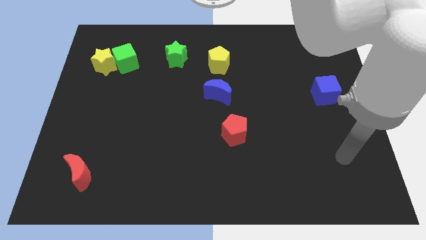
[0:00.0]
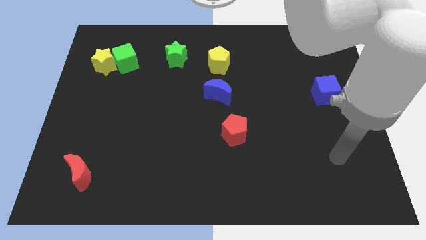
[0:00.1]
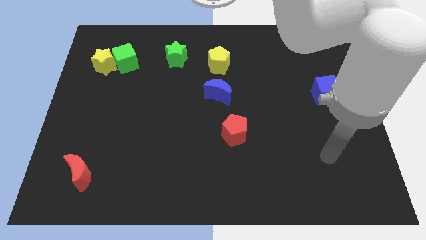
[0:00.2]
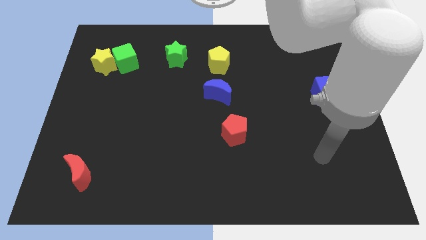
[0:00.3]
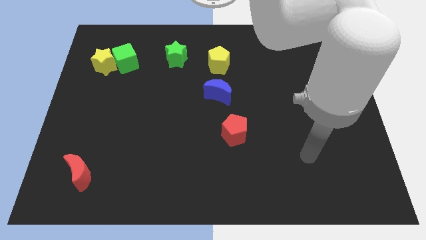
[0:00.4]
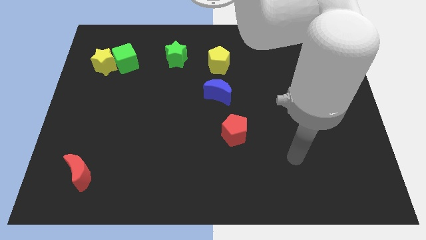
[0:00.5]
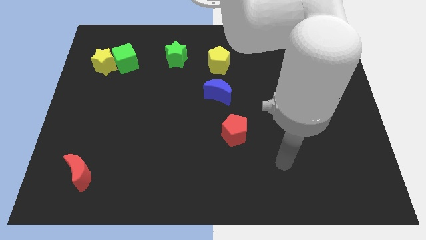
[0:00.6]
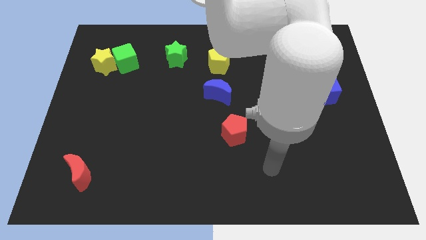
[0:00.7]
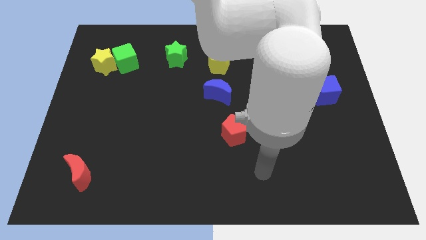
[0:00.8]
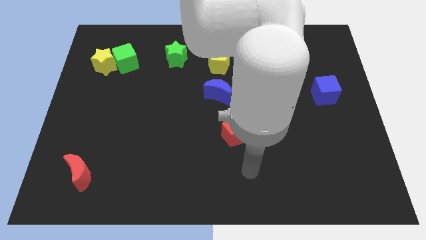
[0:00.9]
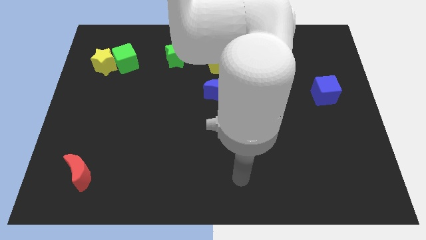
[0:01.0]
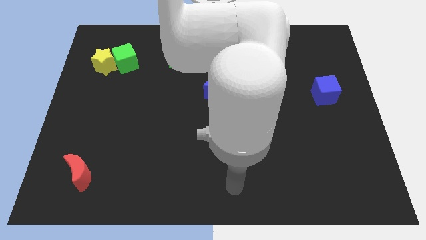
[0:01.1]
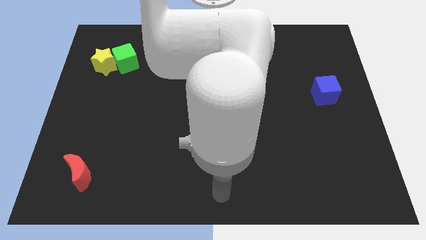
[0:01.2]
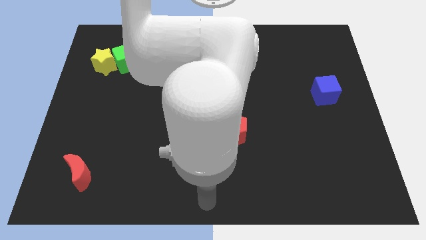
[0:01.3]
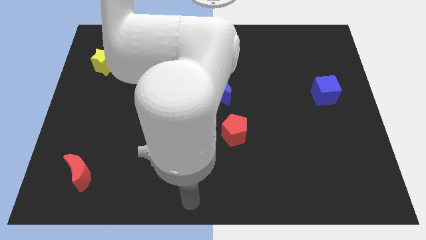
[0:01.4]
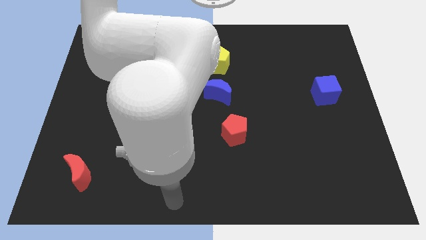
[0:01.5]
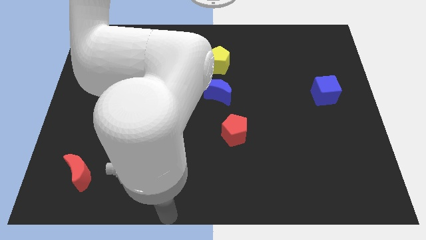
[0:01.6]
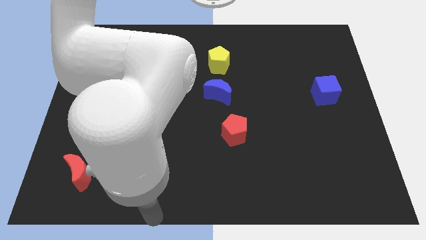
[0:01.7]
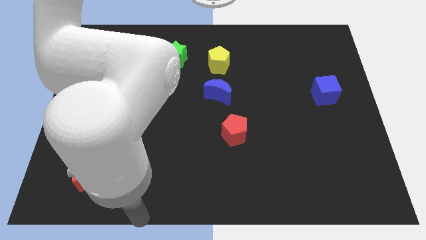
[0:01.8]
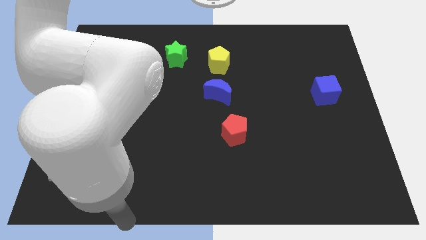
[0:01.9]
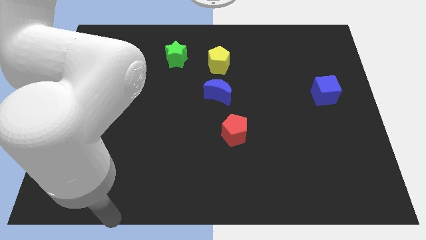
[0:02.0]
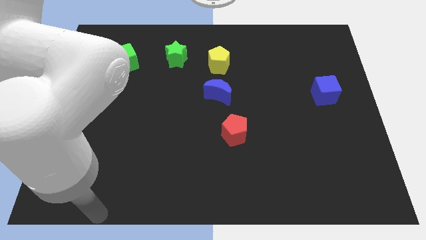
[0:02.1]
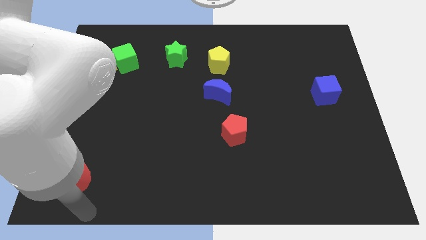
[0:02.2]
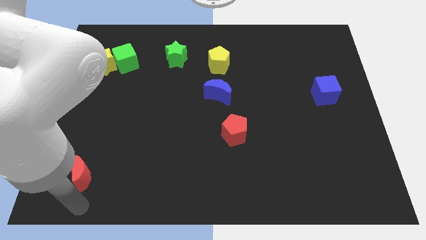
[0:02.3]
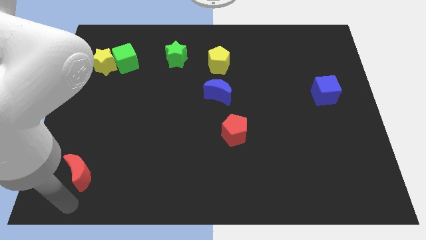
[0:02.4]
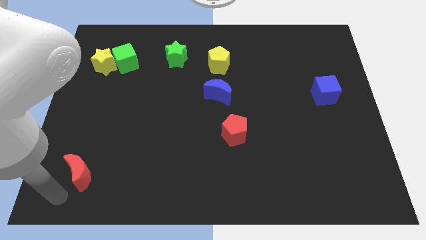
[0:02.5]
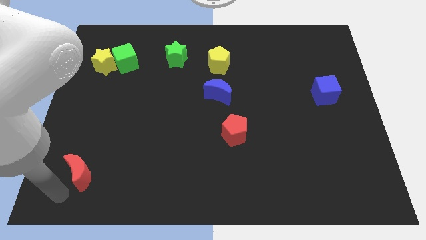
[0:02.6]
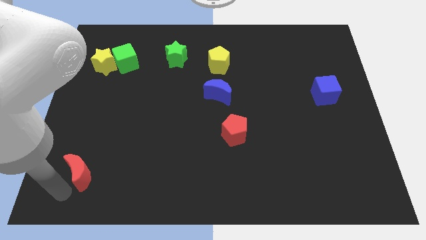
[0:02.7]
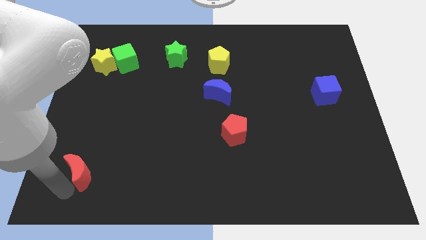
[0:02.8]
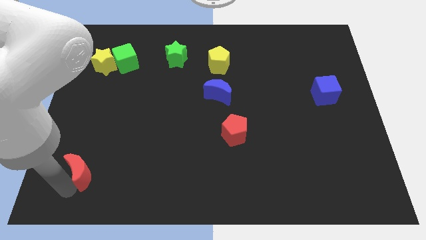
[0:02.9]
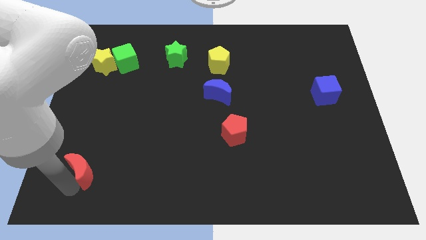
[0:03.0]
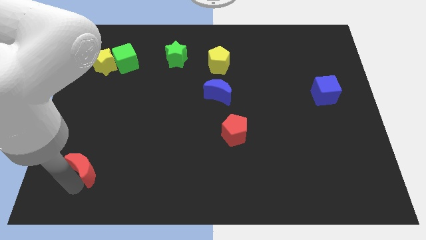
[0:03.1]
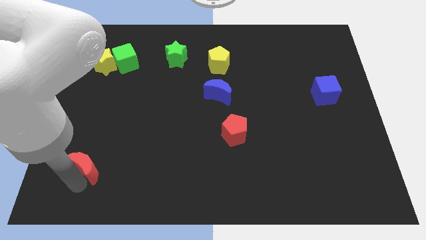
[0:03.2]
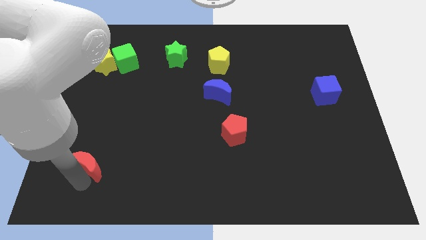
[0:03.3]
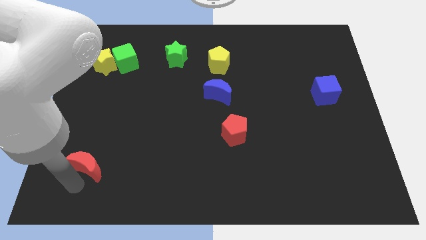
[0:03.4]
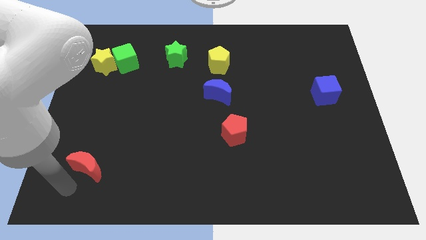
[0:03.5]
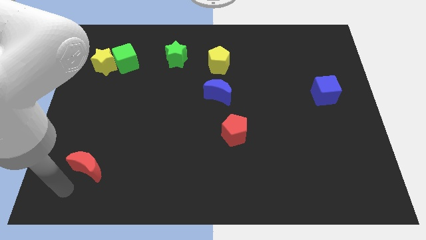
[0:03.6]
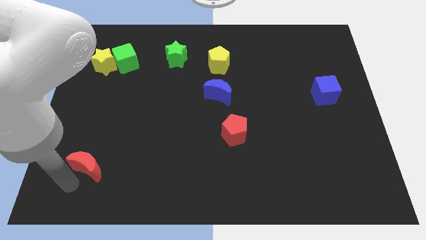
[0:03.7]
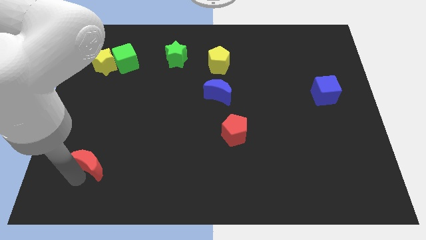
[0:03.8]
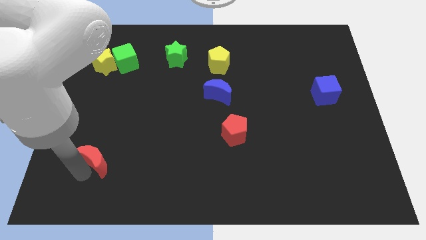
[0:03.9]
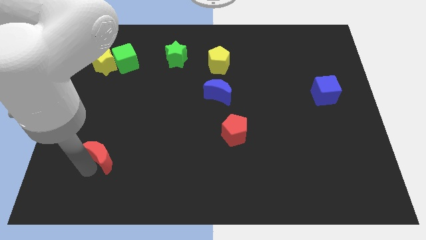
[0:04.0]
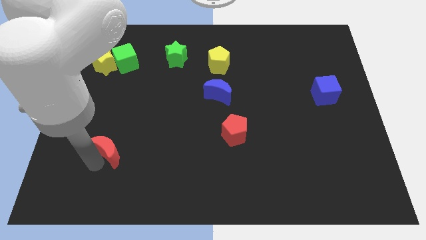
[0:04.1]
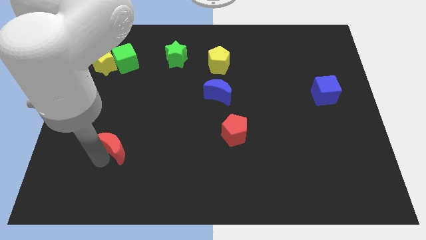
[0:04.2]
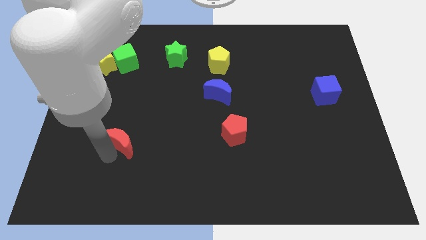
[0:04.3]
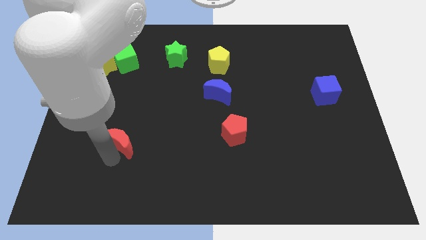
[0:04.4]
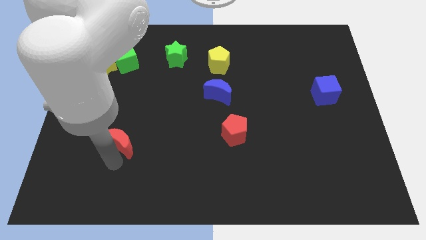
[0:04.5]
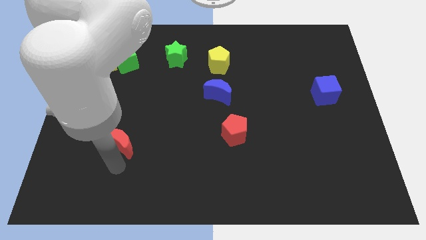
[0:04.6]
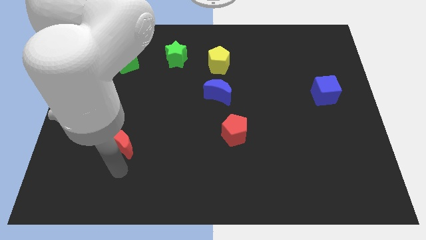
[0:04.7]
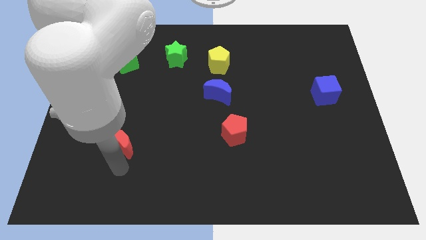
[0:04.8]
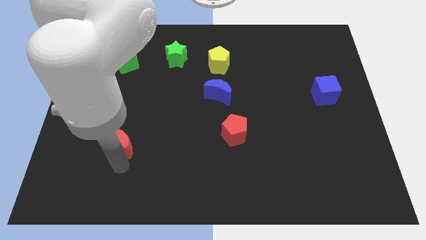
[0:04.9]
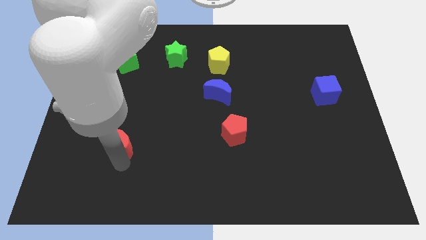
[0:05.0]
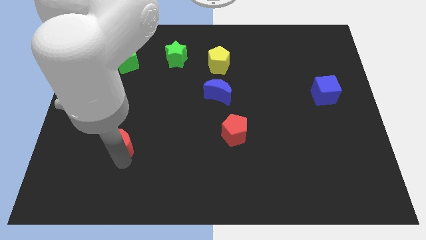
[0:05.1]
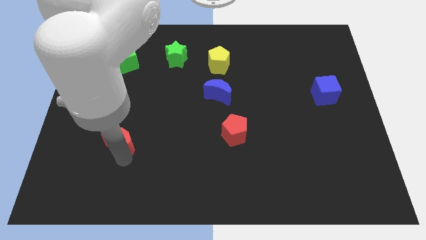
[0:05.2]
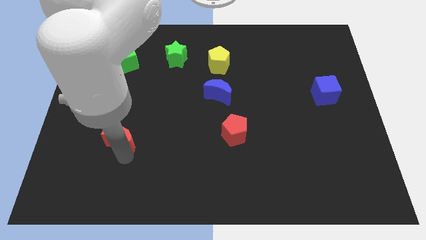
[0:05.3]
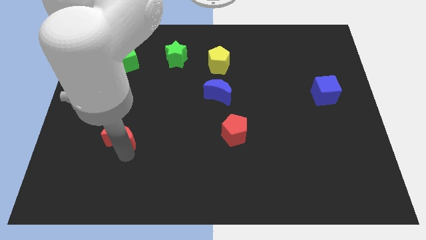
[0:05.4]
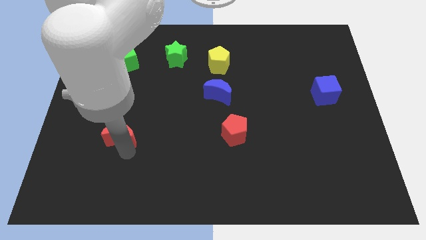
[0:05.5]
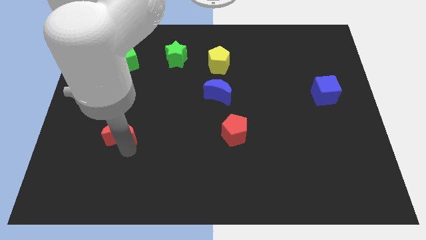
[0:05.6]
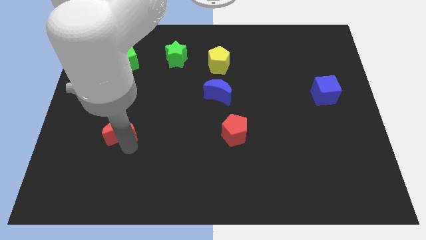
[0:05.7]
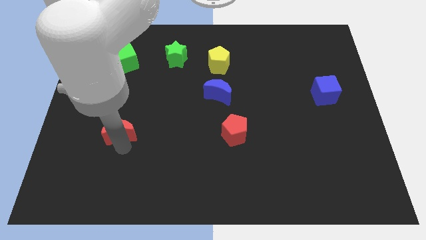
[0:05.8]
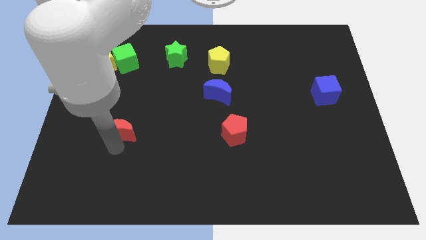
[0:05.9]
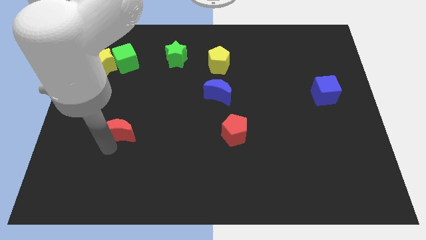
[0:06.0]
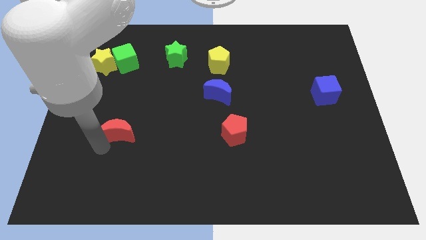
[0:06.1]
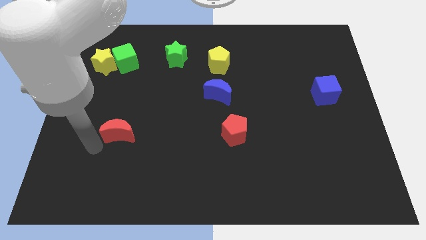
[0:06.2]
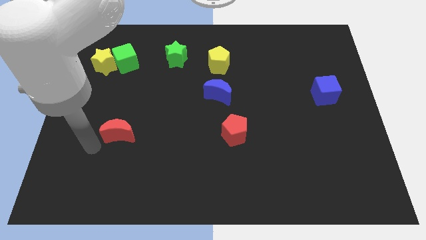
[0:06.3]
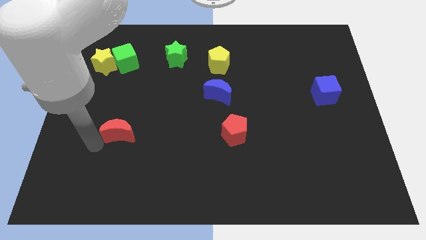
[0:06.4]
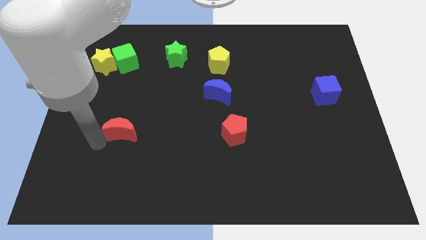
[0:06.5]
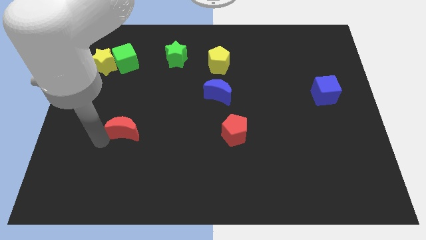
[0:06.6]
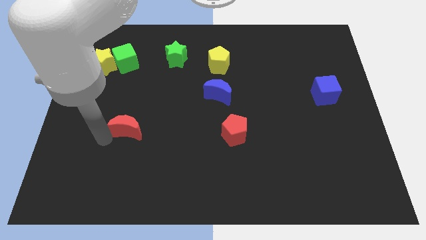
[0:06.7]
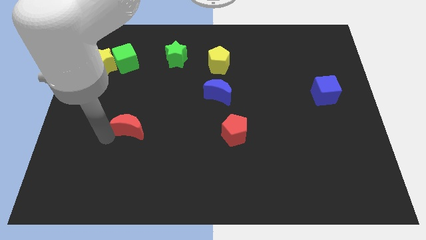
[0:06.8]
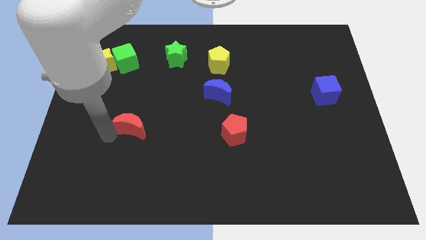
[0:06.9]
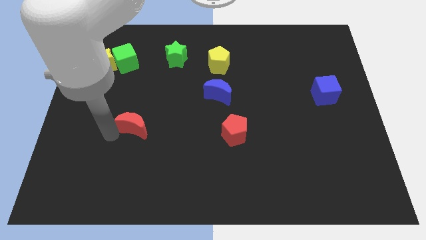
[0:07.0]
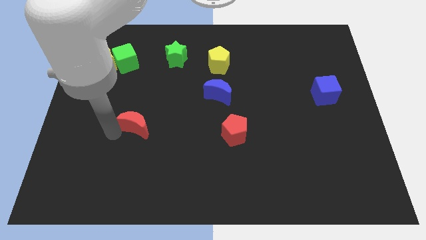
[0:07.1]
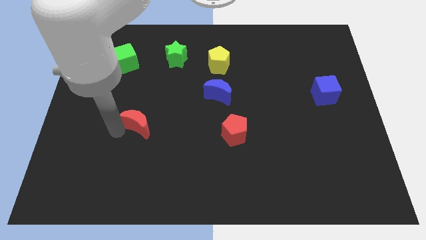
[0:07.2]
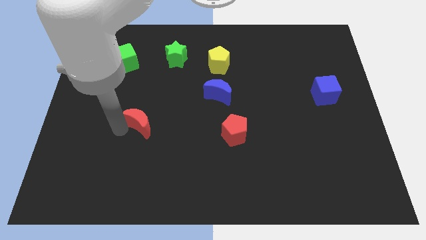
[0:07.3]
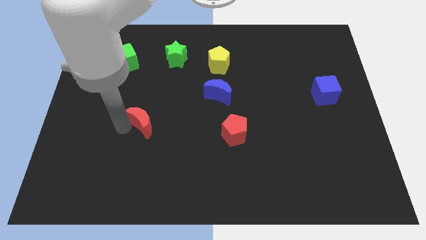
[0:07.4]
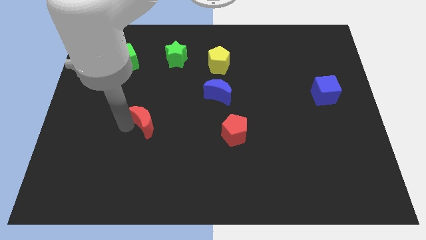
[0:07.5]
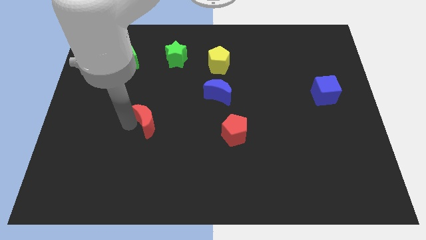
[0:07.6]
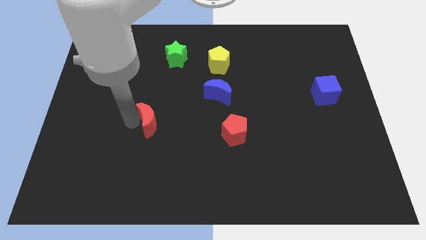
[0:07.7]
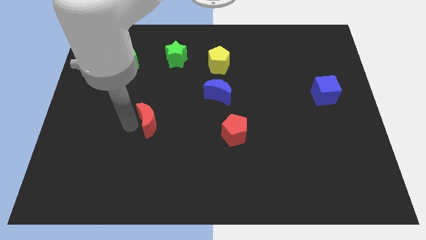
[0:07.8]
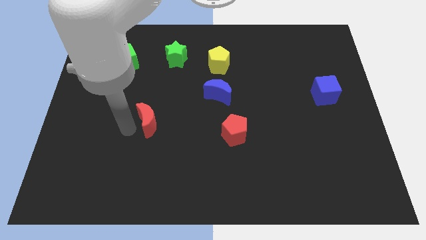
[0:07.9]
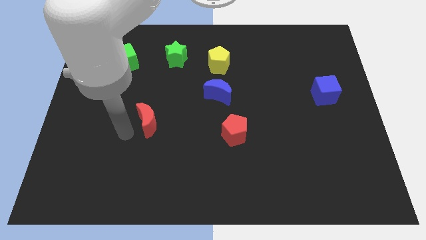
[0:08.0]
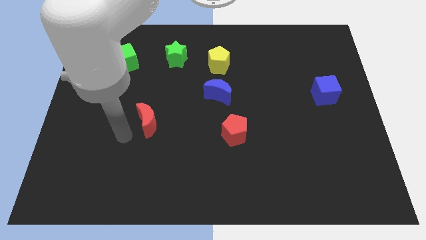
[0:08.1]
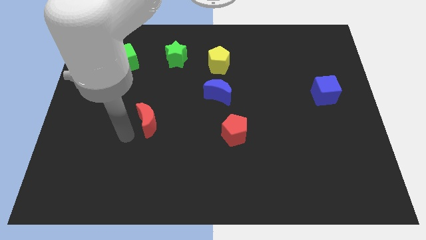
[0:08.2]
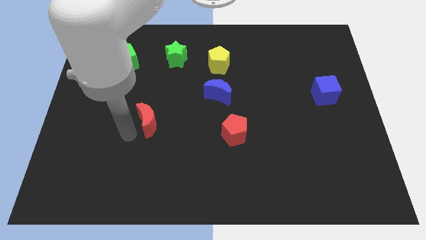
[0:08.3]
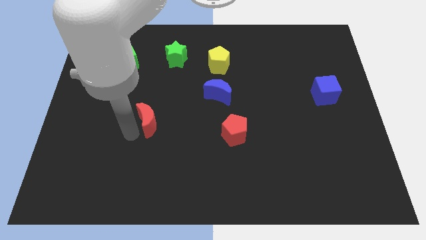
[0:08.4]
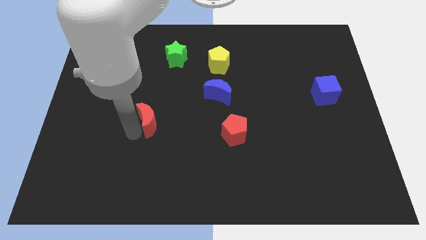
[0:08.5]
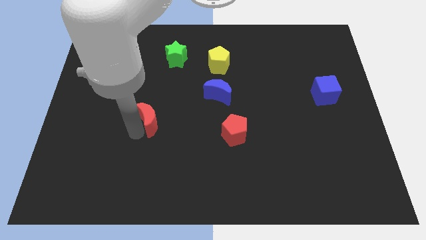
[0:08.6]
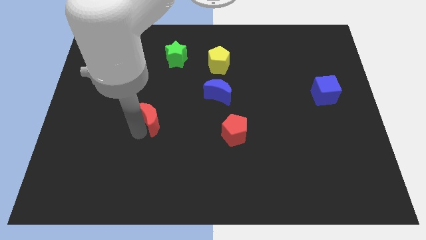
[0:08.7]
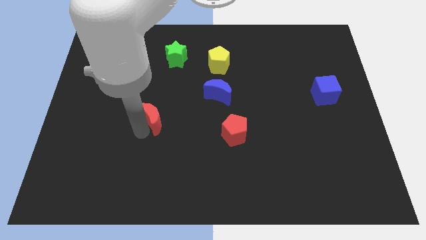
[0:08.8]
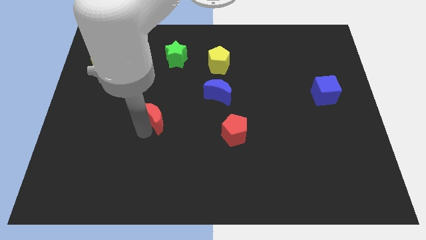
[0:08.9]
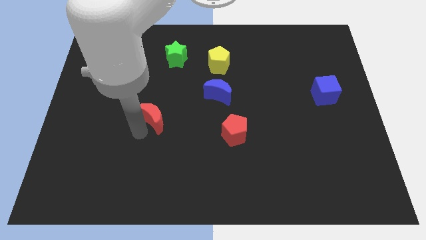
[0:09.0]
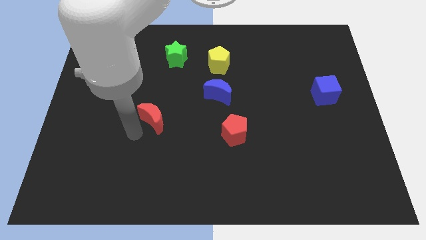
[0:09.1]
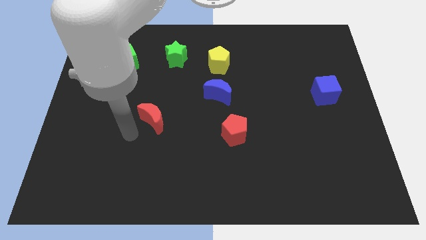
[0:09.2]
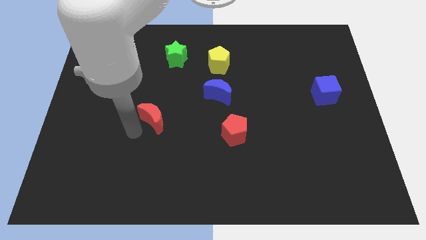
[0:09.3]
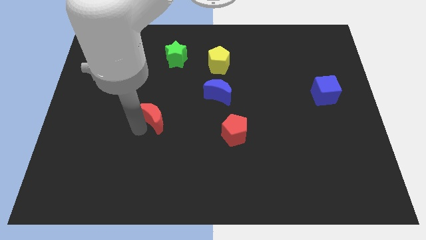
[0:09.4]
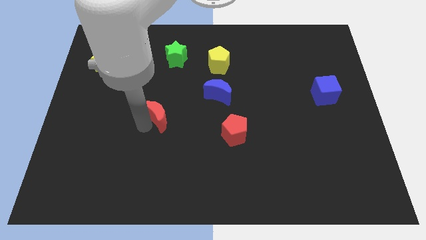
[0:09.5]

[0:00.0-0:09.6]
push the red moon diagonally upwards and to the right
